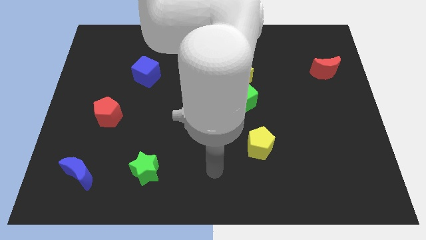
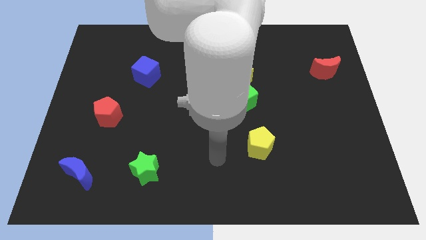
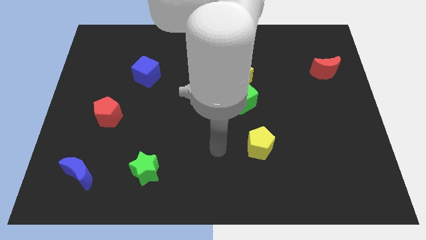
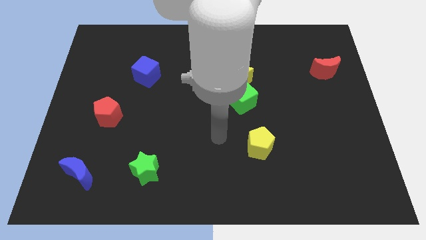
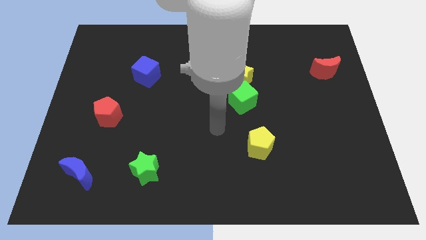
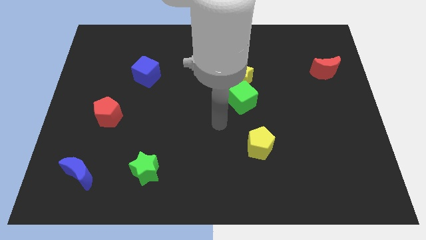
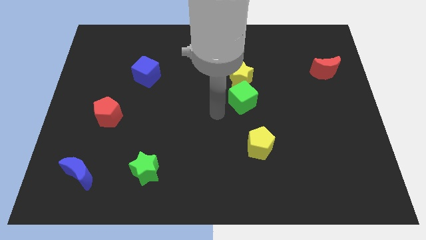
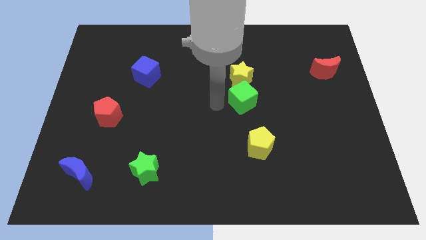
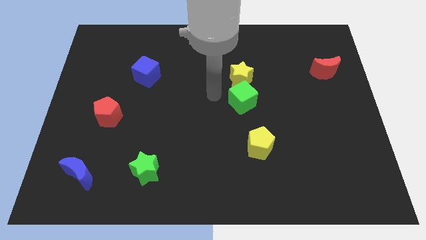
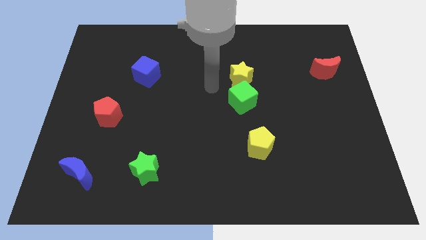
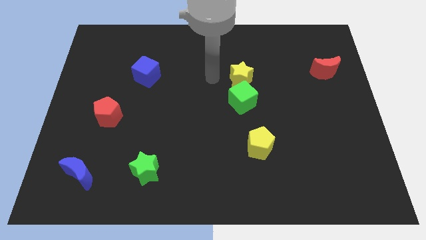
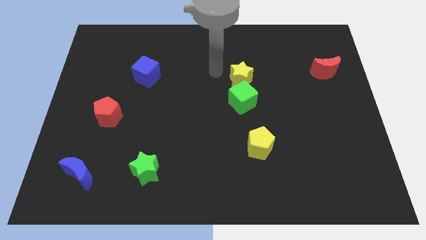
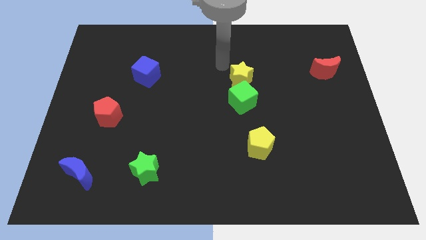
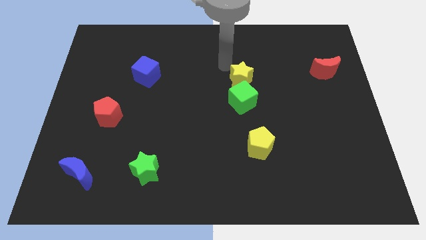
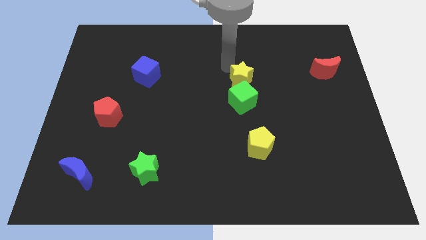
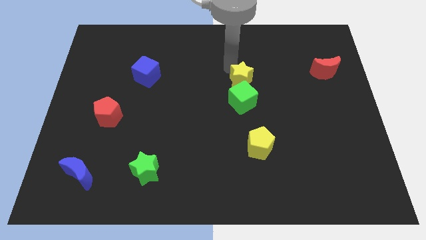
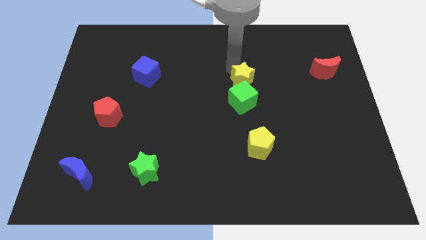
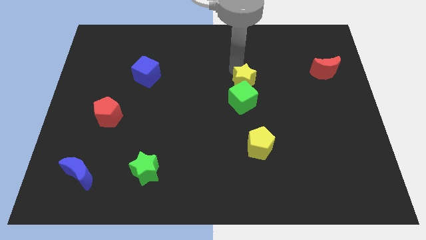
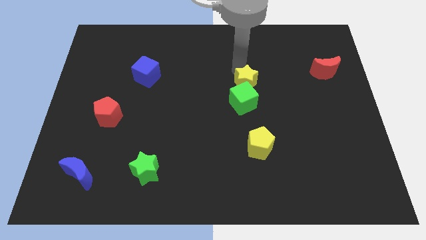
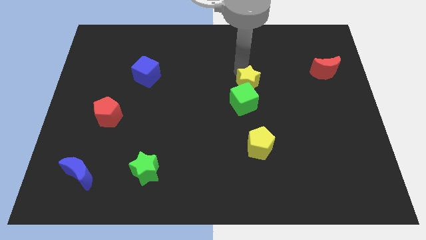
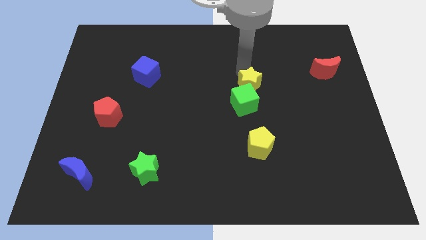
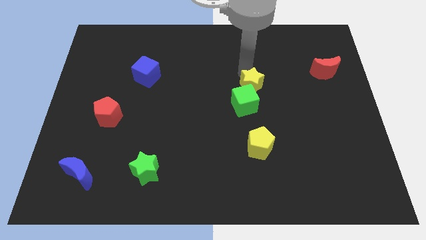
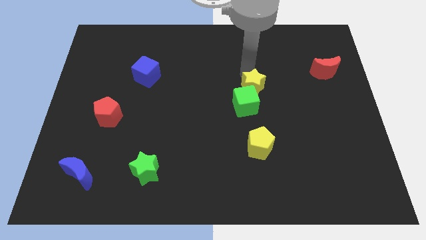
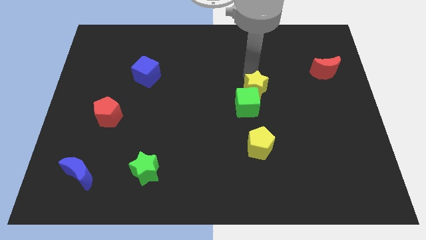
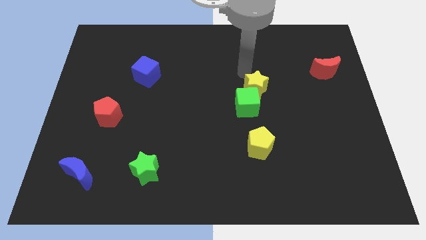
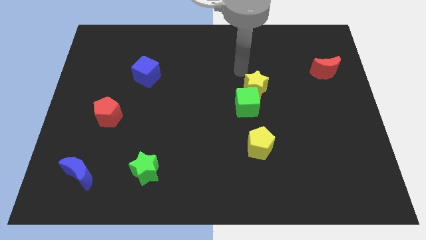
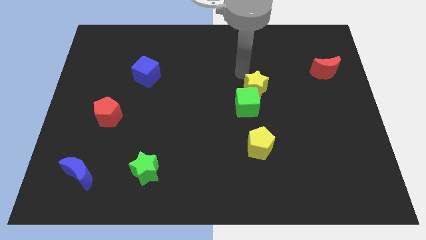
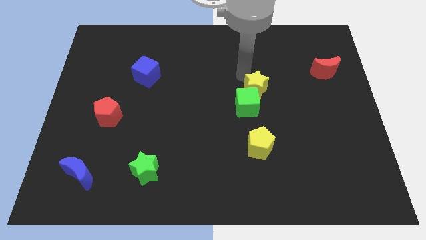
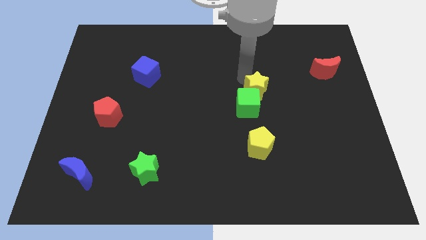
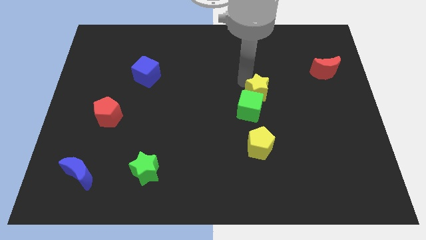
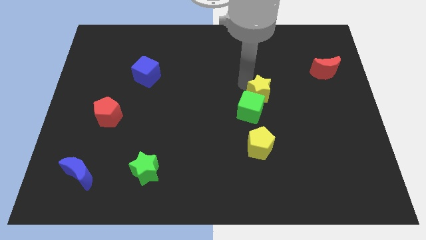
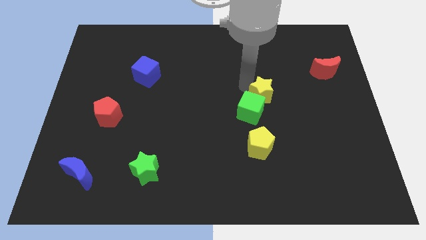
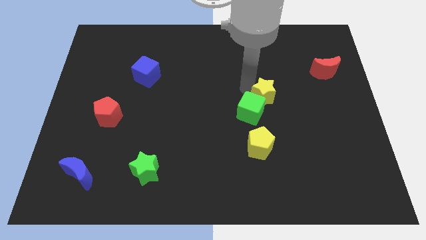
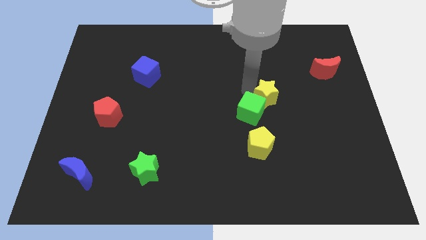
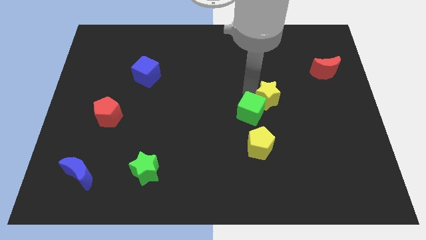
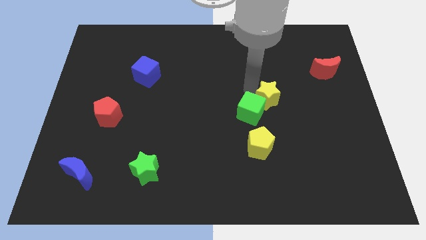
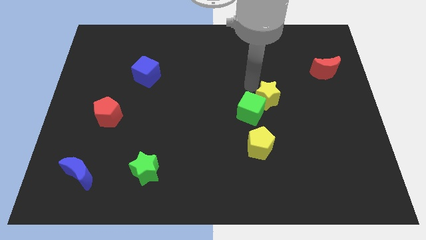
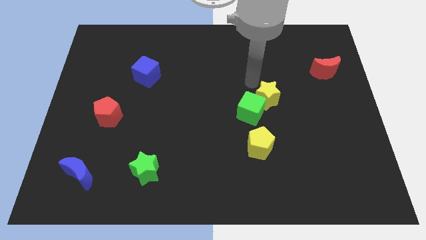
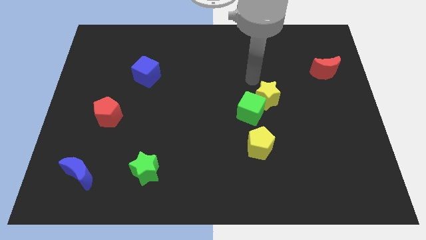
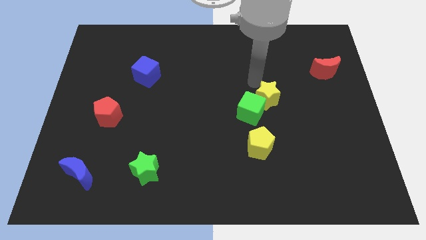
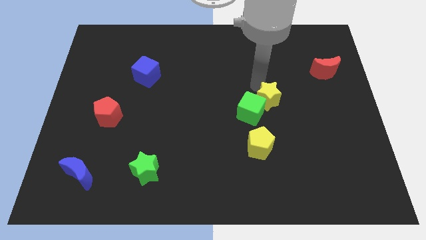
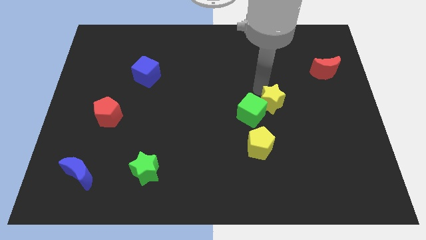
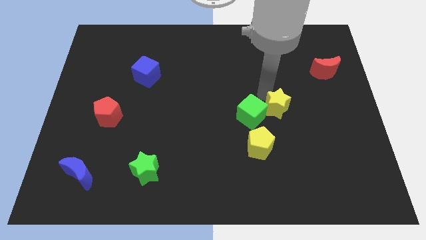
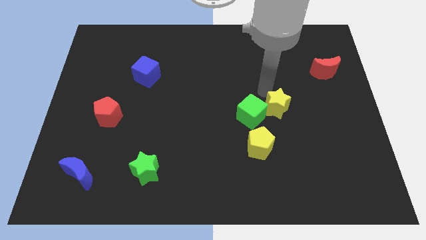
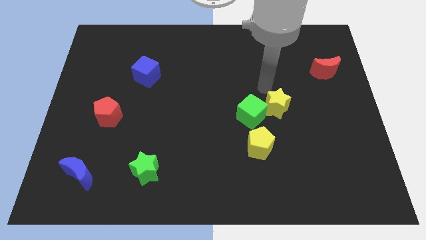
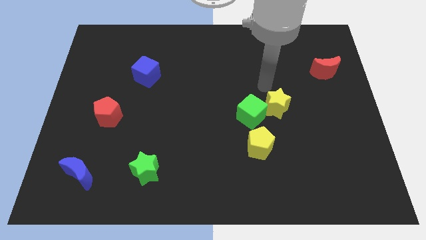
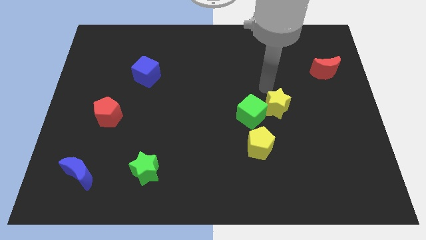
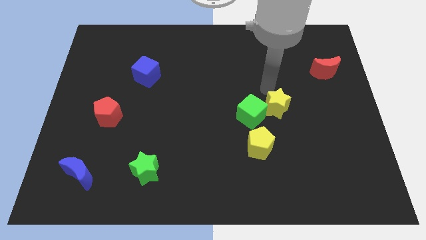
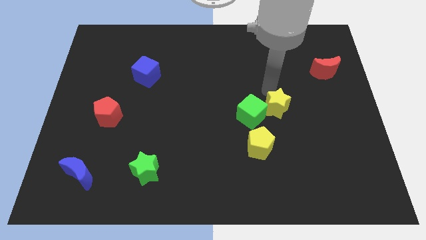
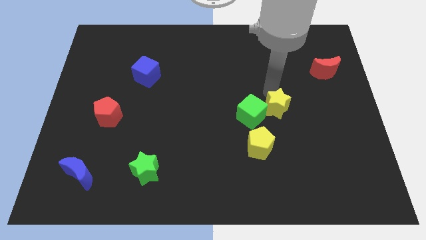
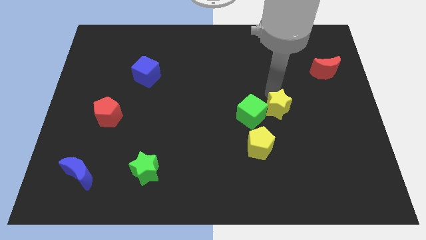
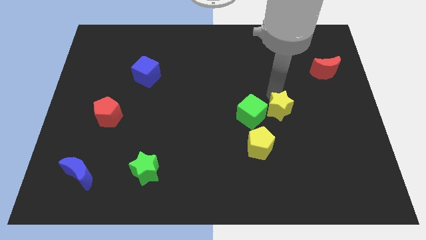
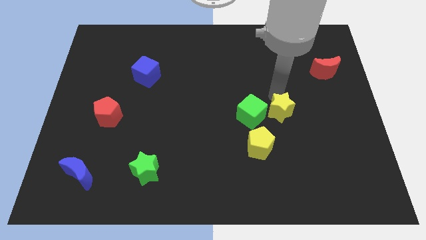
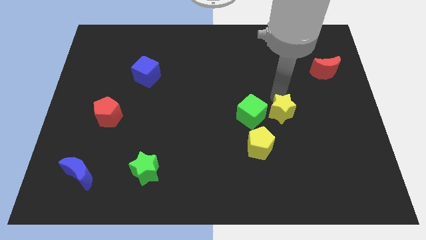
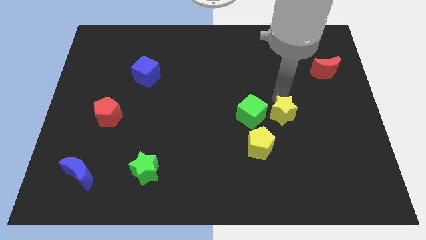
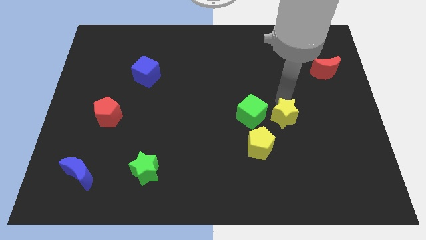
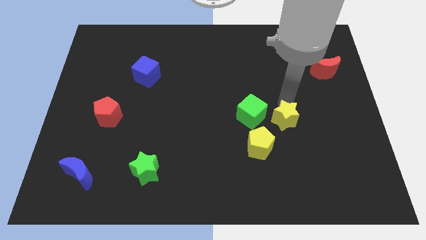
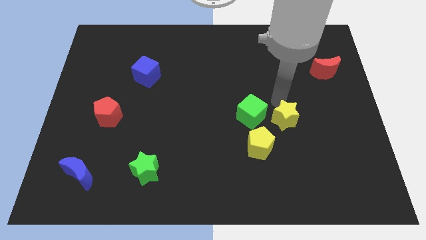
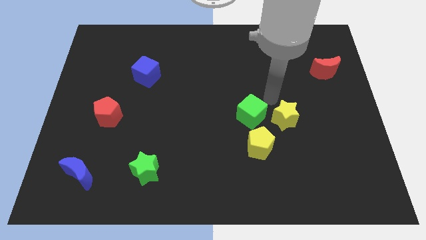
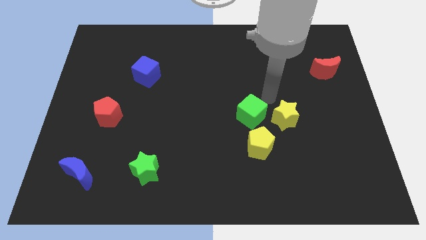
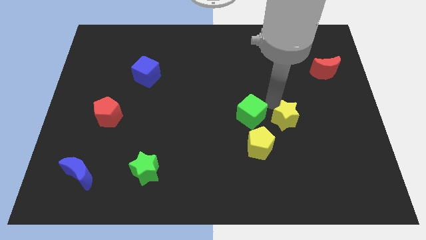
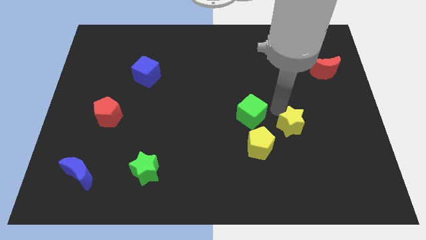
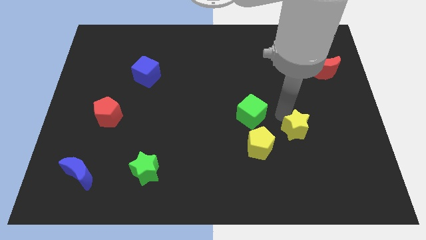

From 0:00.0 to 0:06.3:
push the yellow star just right of the yellow pentagon
